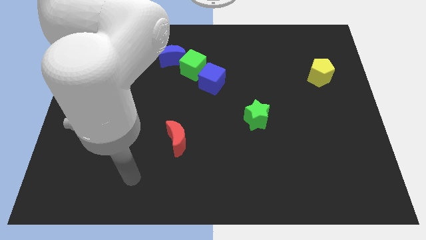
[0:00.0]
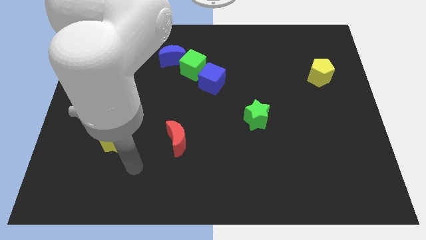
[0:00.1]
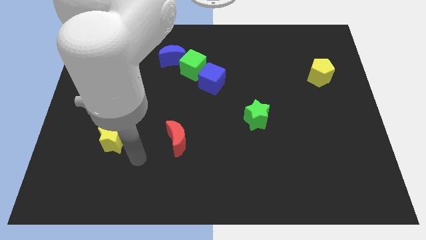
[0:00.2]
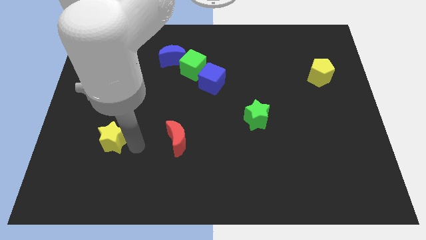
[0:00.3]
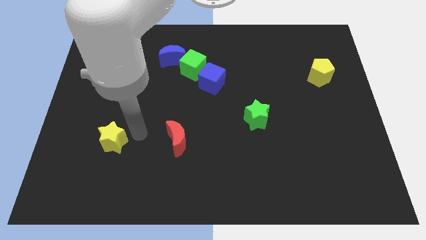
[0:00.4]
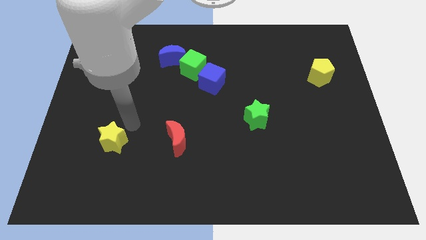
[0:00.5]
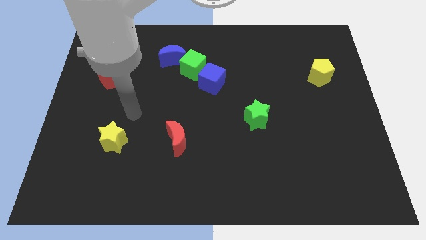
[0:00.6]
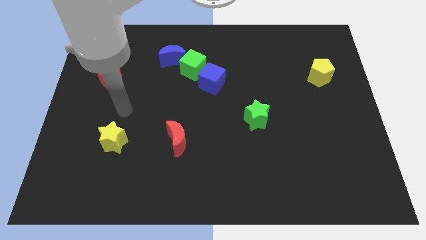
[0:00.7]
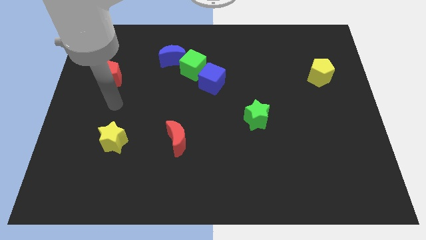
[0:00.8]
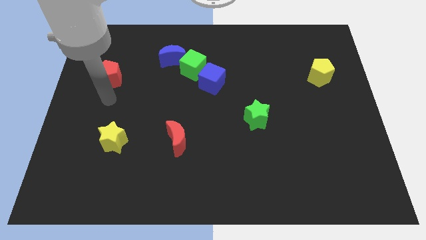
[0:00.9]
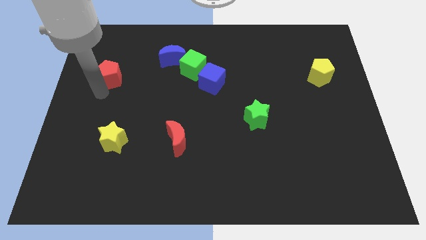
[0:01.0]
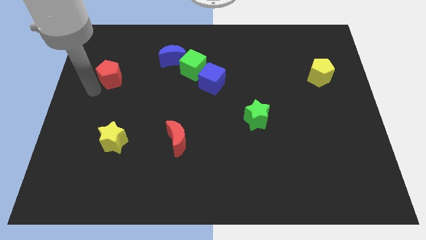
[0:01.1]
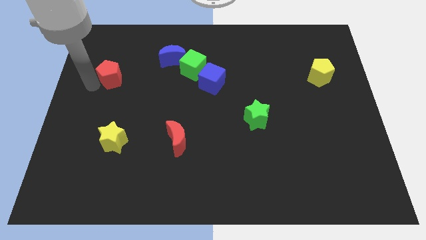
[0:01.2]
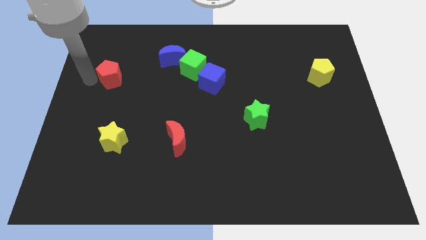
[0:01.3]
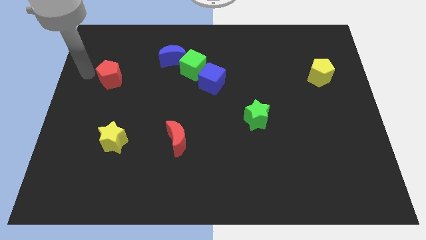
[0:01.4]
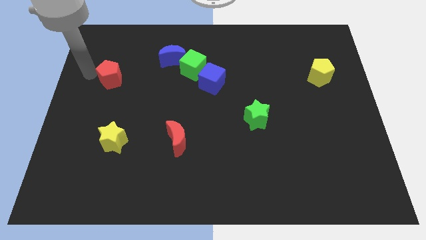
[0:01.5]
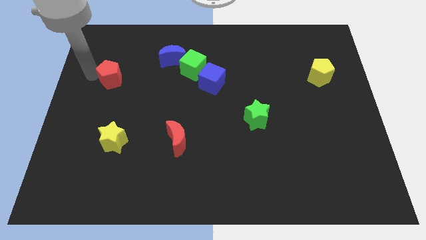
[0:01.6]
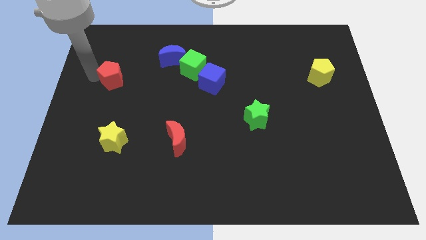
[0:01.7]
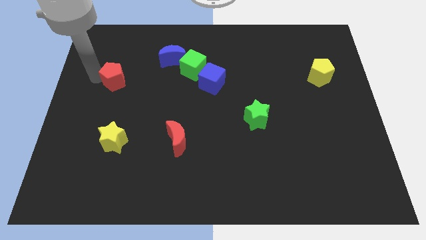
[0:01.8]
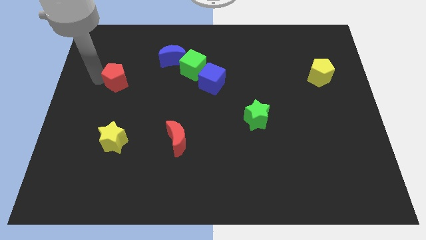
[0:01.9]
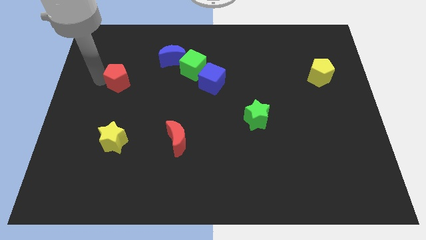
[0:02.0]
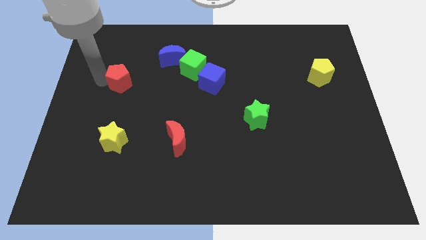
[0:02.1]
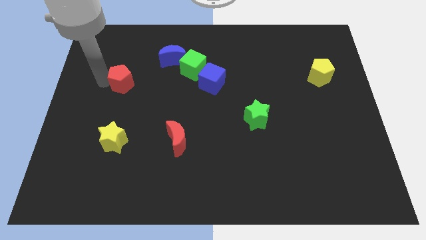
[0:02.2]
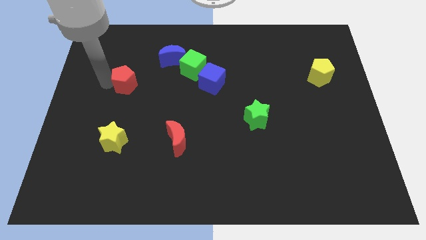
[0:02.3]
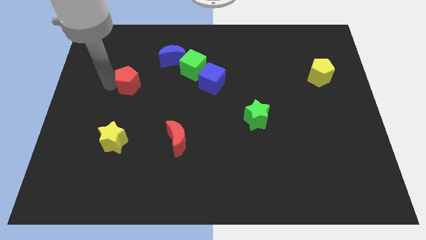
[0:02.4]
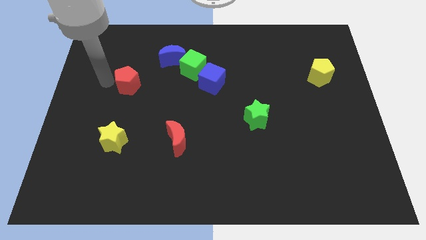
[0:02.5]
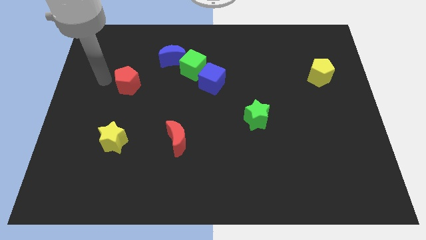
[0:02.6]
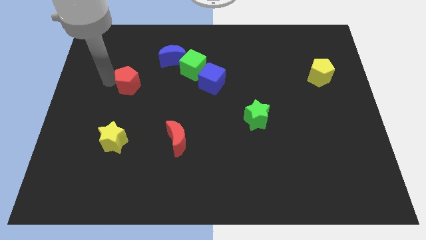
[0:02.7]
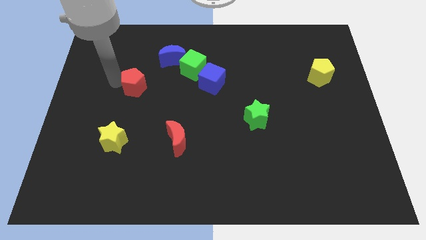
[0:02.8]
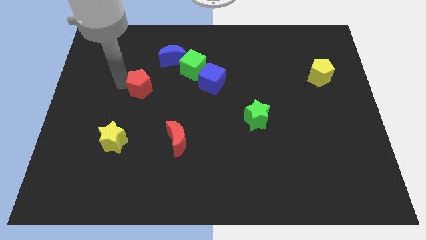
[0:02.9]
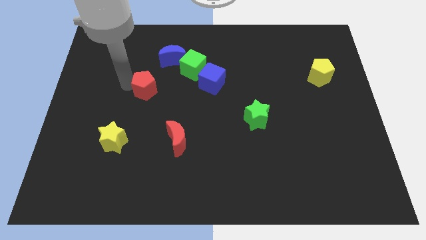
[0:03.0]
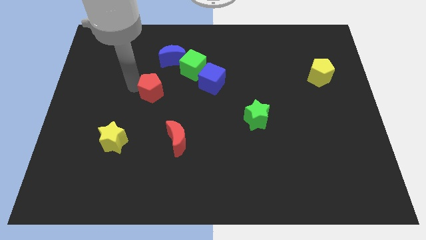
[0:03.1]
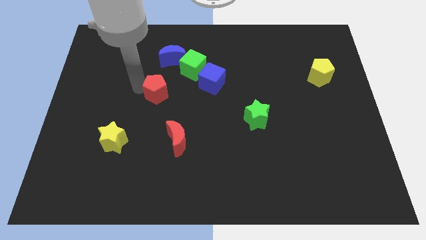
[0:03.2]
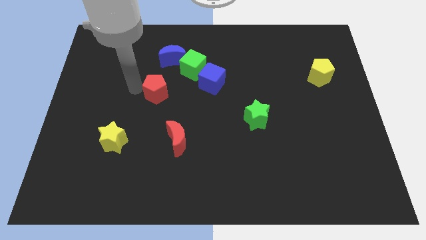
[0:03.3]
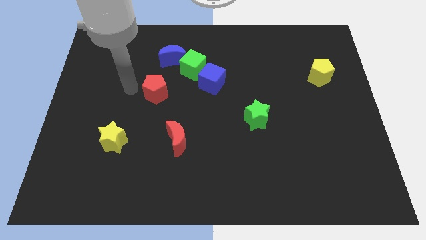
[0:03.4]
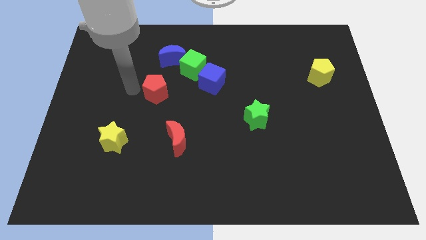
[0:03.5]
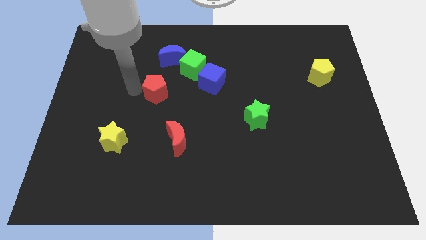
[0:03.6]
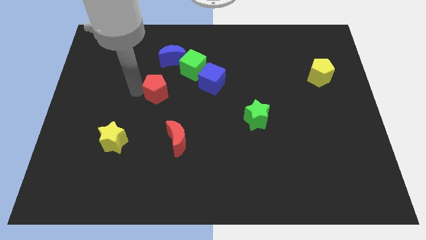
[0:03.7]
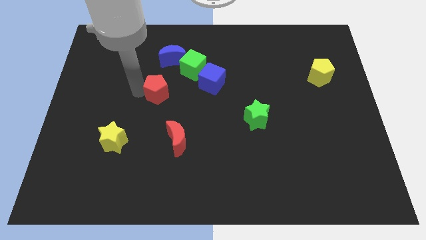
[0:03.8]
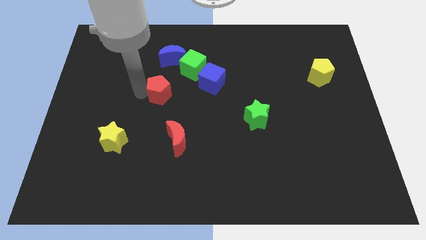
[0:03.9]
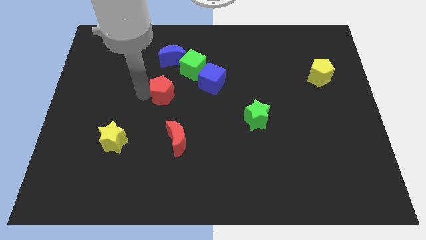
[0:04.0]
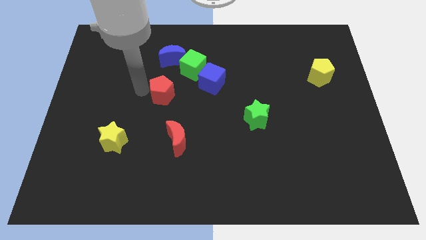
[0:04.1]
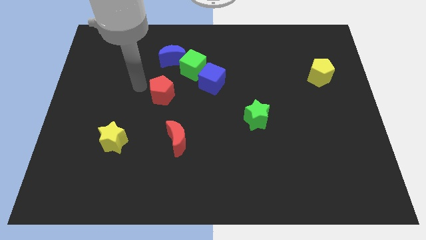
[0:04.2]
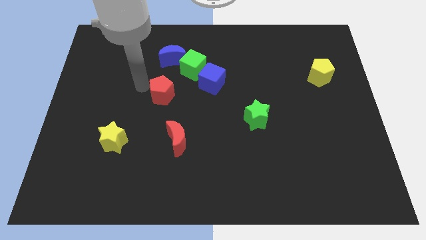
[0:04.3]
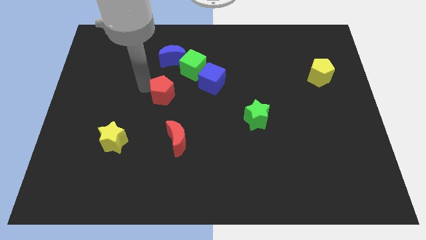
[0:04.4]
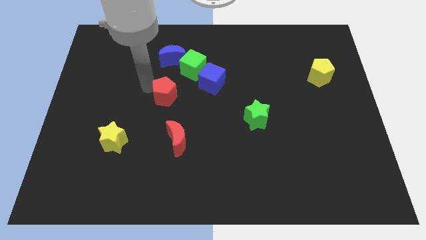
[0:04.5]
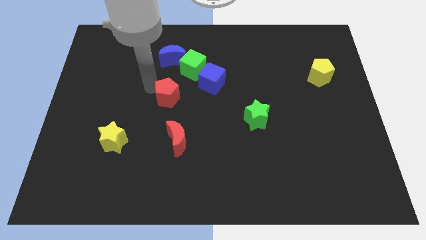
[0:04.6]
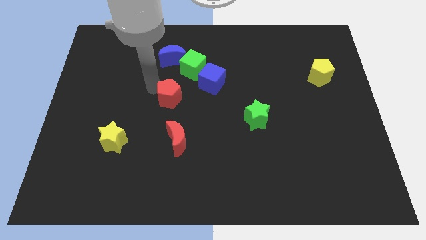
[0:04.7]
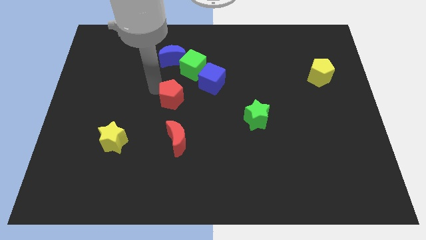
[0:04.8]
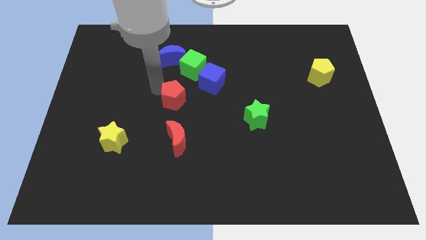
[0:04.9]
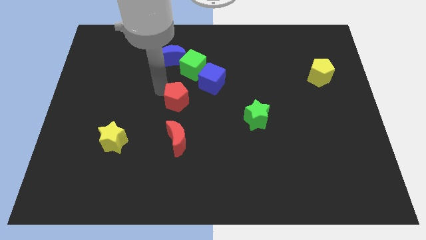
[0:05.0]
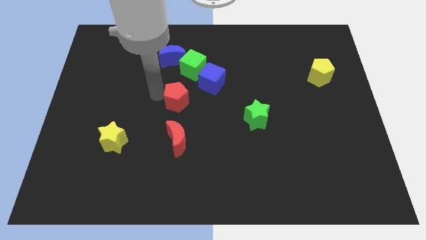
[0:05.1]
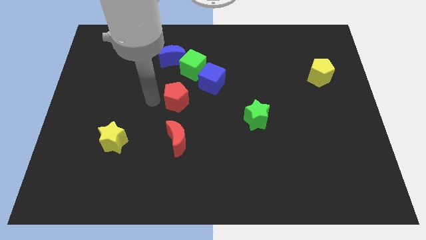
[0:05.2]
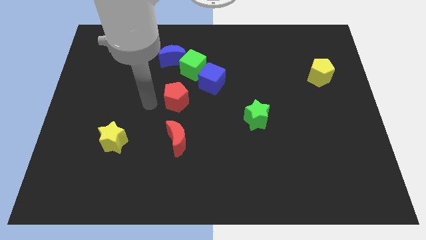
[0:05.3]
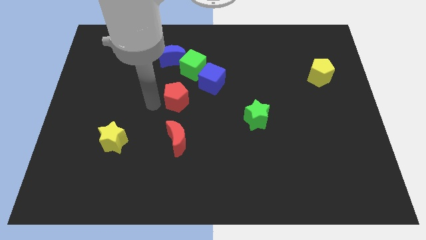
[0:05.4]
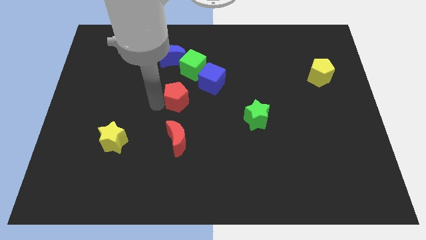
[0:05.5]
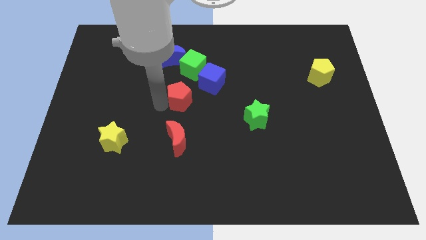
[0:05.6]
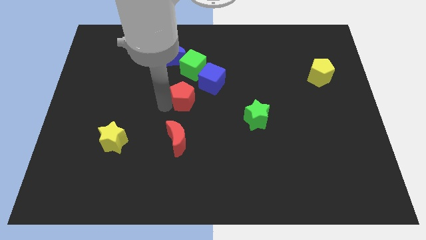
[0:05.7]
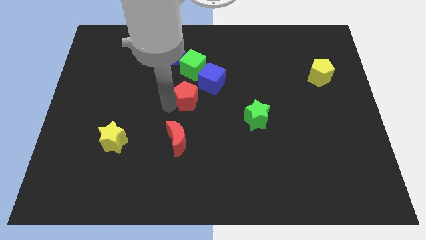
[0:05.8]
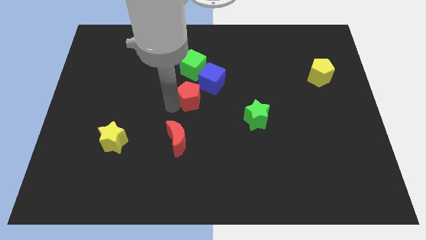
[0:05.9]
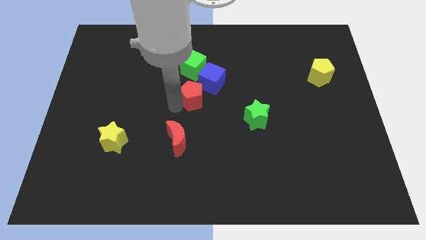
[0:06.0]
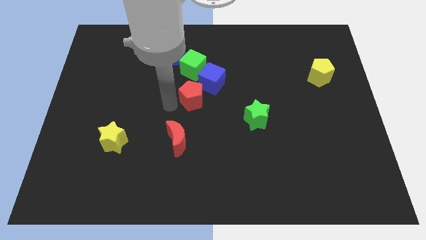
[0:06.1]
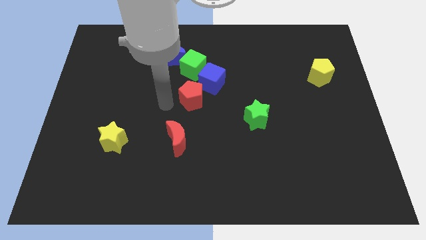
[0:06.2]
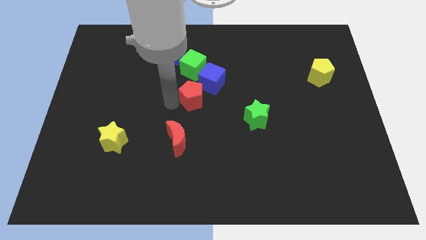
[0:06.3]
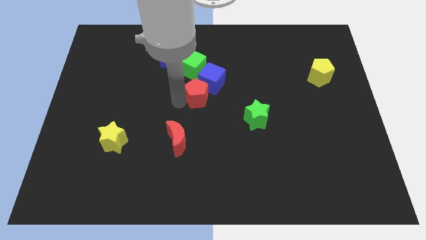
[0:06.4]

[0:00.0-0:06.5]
slide the red pentagon to the right

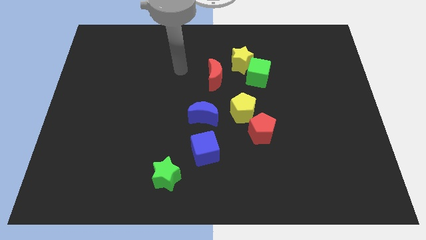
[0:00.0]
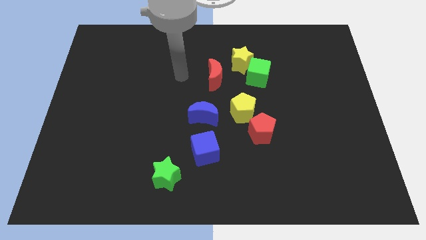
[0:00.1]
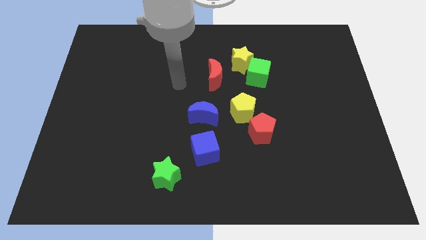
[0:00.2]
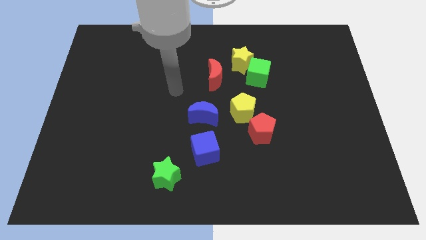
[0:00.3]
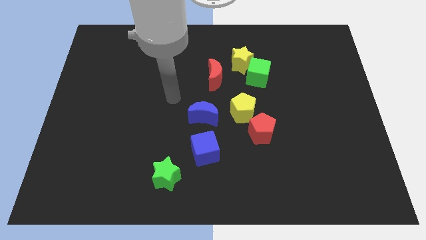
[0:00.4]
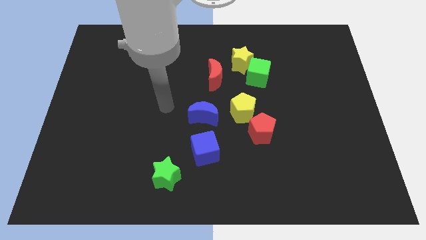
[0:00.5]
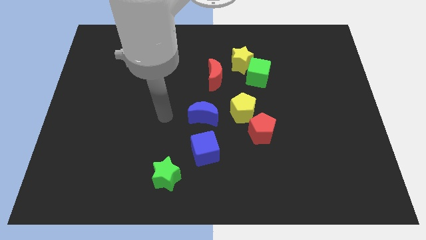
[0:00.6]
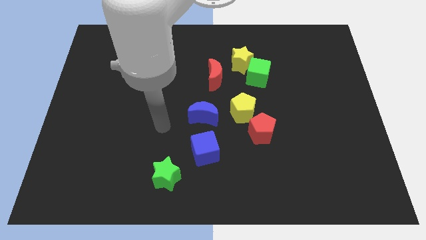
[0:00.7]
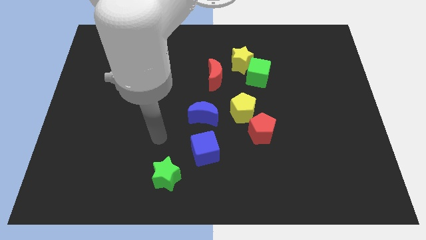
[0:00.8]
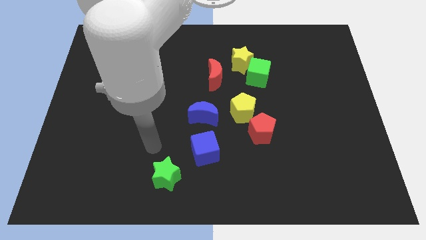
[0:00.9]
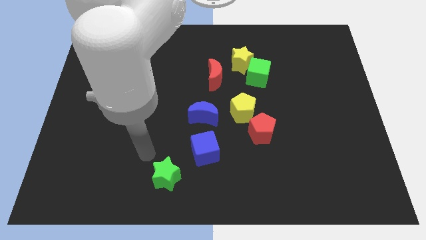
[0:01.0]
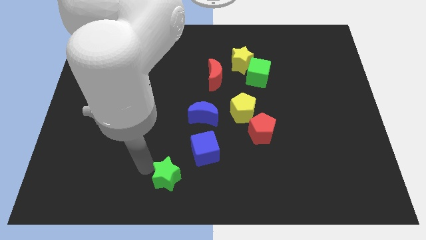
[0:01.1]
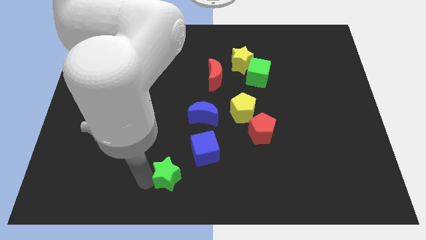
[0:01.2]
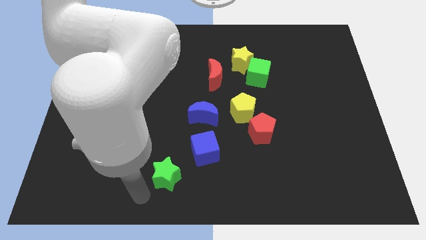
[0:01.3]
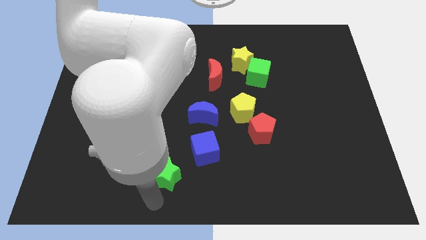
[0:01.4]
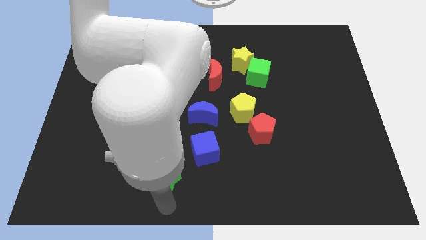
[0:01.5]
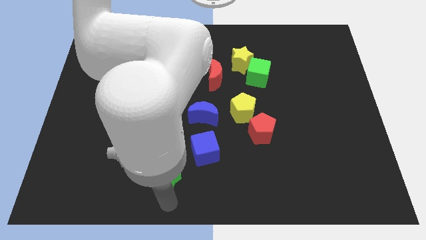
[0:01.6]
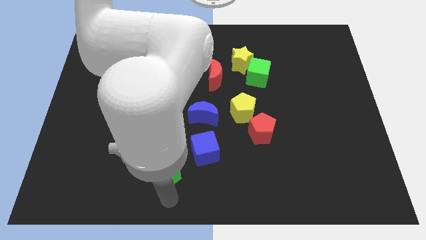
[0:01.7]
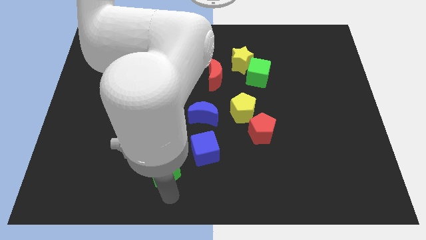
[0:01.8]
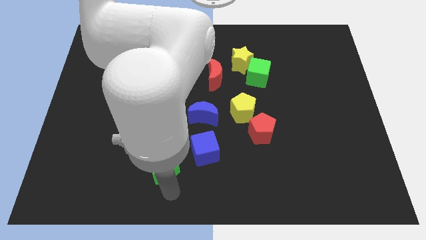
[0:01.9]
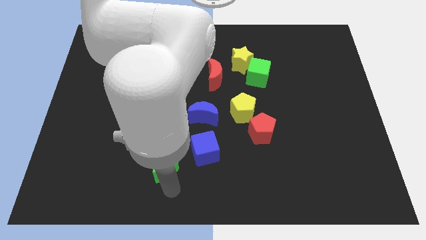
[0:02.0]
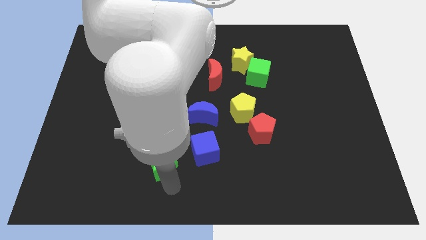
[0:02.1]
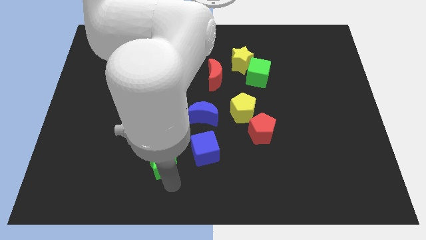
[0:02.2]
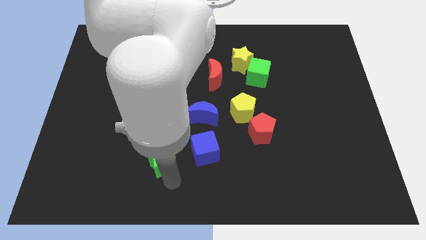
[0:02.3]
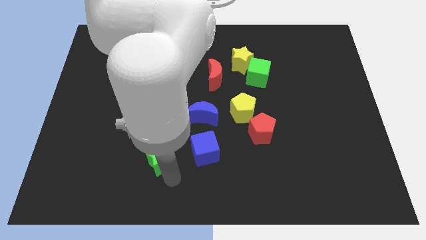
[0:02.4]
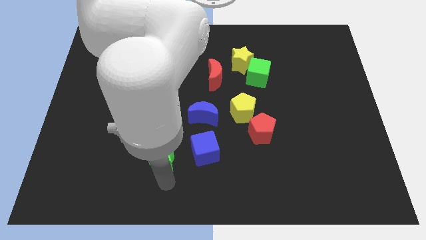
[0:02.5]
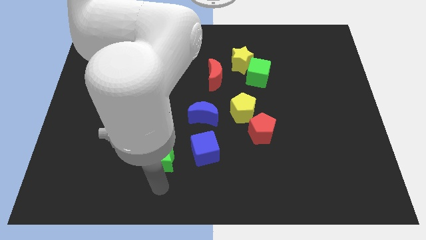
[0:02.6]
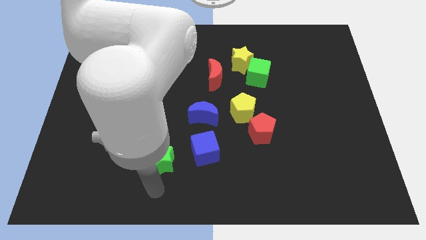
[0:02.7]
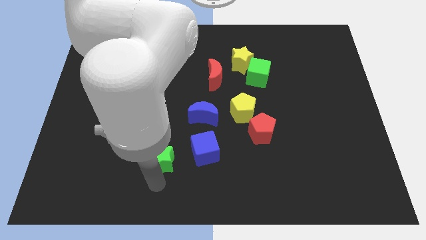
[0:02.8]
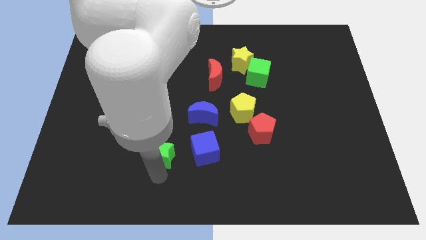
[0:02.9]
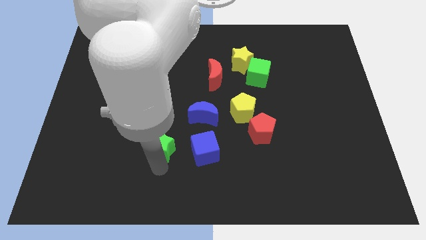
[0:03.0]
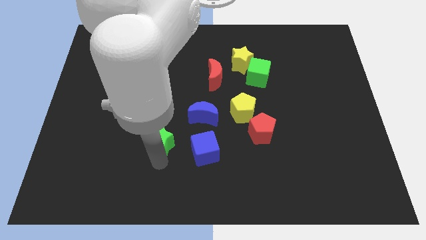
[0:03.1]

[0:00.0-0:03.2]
slightly push the green star upwards
